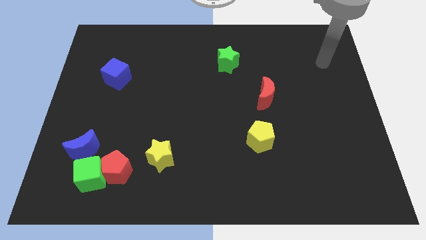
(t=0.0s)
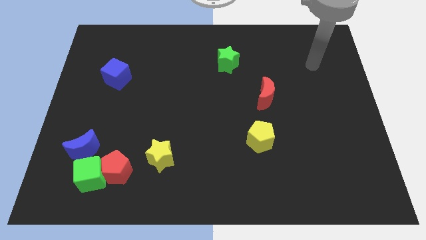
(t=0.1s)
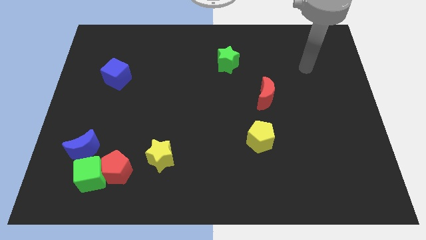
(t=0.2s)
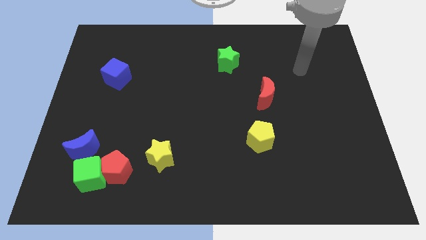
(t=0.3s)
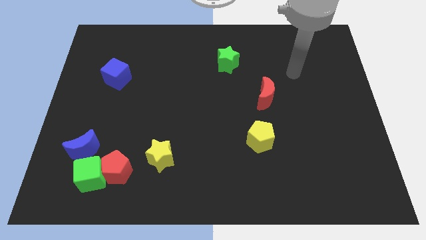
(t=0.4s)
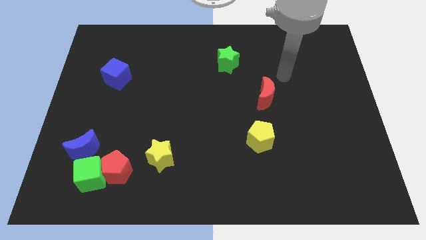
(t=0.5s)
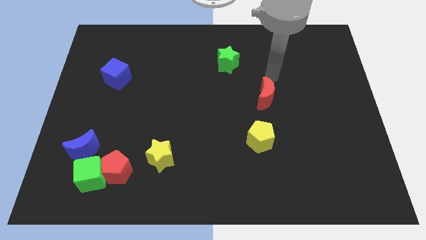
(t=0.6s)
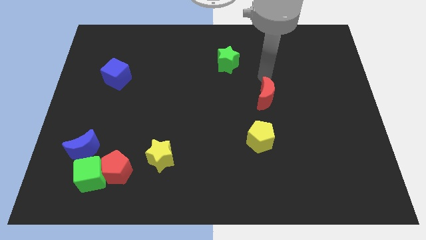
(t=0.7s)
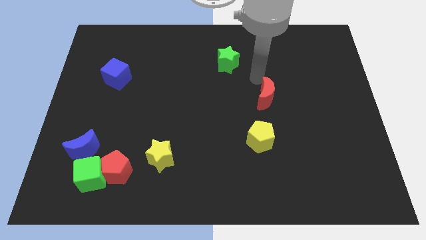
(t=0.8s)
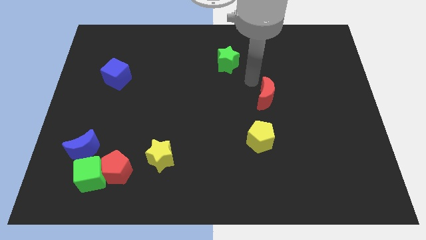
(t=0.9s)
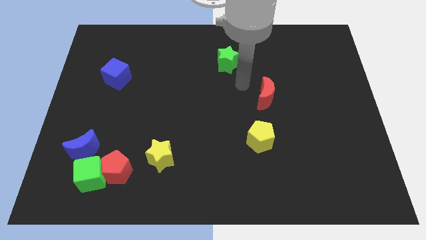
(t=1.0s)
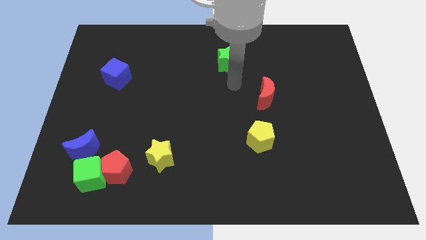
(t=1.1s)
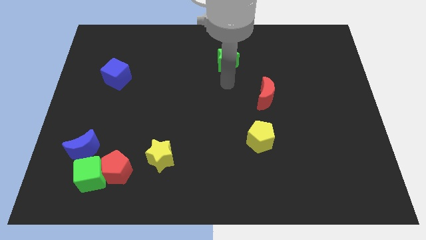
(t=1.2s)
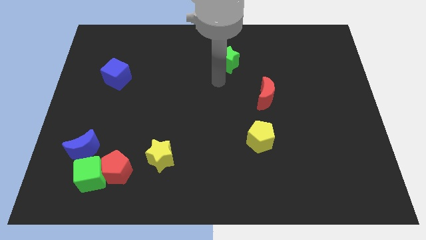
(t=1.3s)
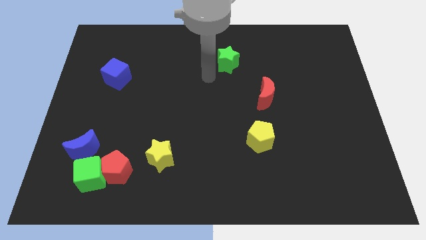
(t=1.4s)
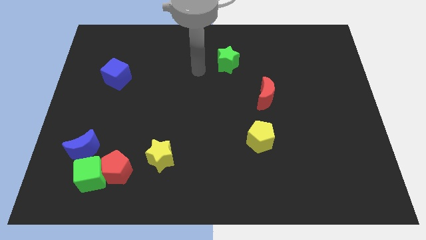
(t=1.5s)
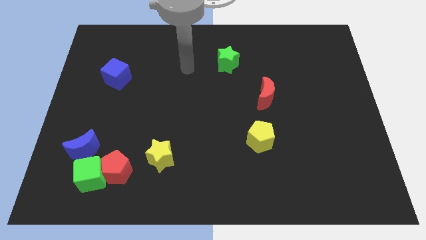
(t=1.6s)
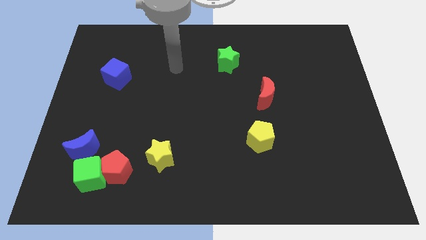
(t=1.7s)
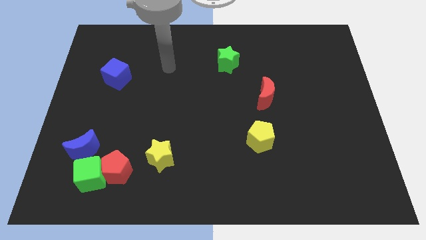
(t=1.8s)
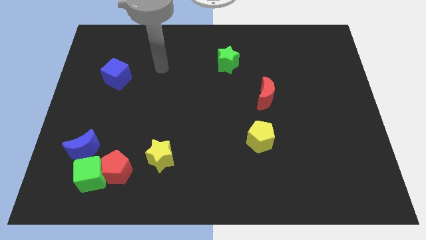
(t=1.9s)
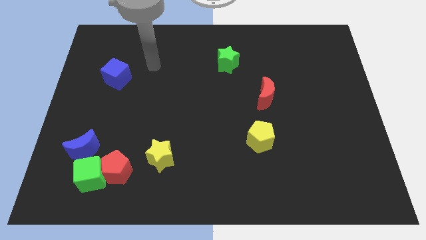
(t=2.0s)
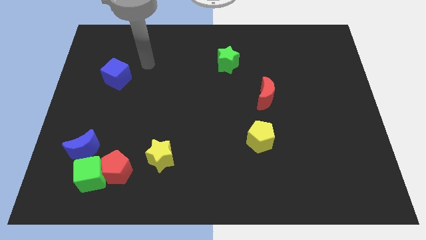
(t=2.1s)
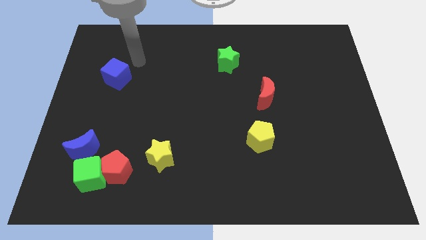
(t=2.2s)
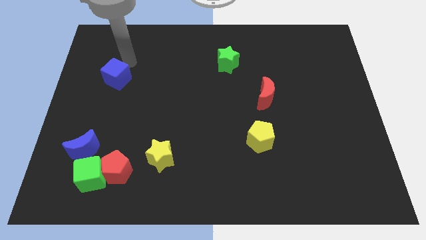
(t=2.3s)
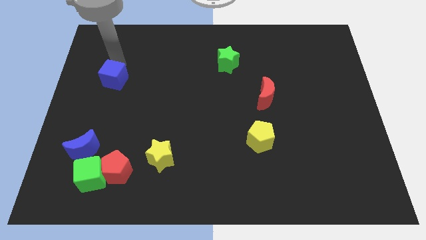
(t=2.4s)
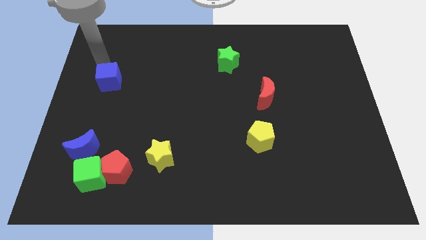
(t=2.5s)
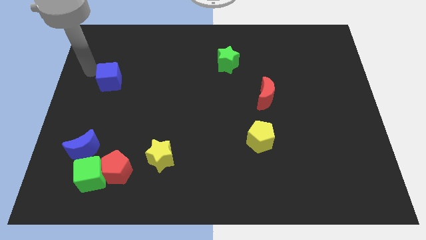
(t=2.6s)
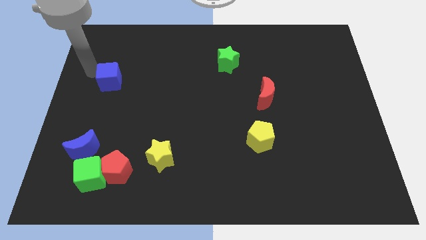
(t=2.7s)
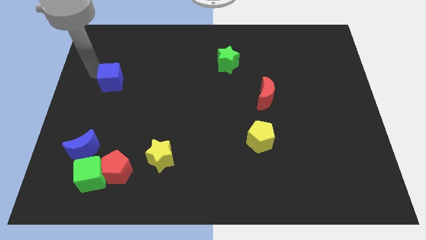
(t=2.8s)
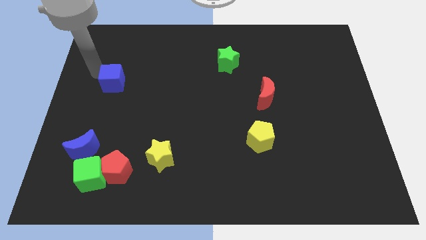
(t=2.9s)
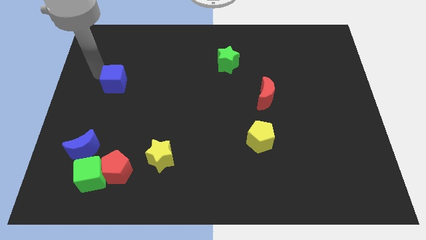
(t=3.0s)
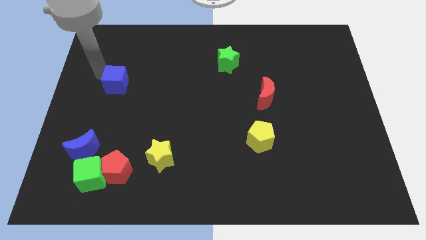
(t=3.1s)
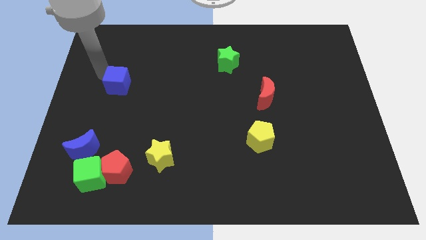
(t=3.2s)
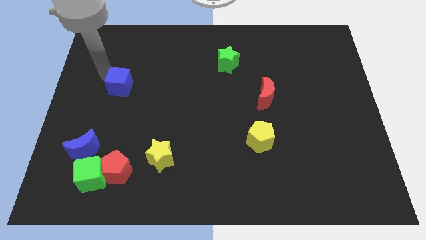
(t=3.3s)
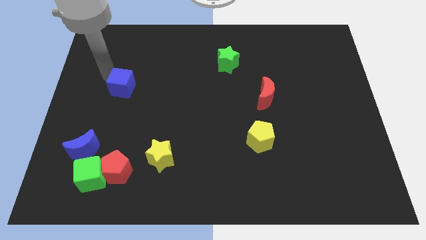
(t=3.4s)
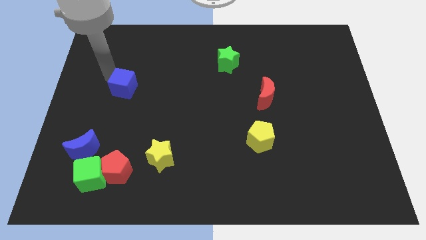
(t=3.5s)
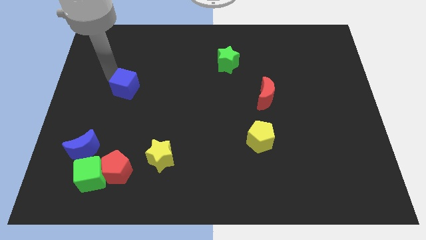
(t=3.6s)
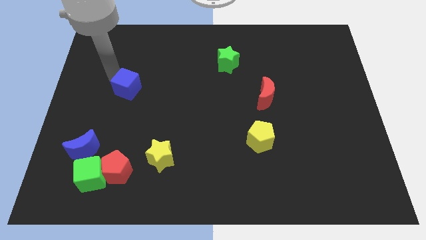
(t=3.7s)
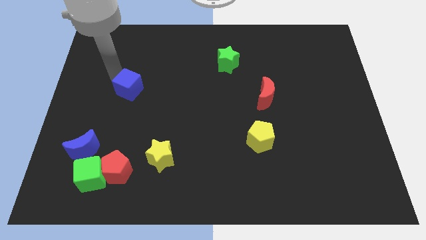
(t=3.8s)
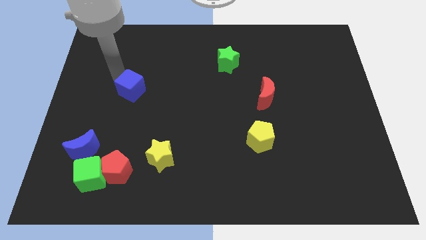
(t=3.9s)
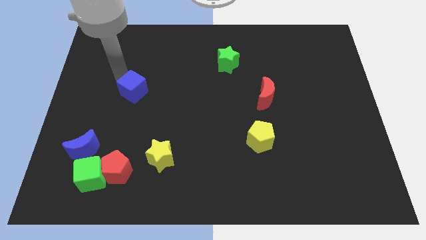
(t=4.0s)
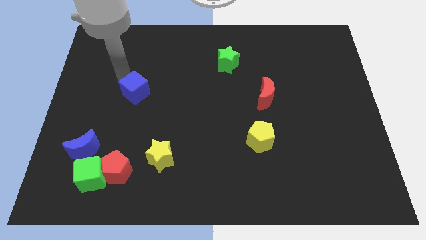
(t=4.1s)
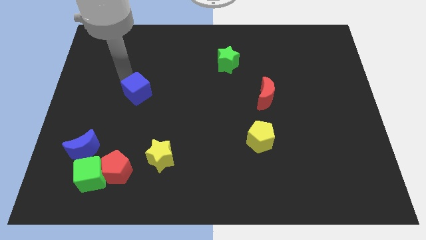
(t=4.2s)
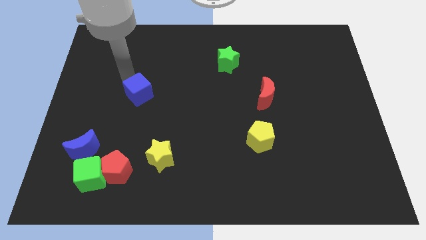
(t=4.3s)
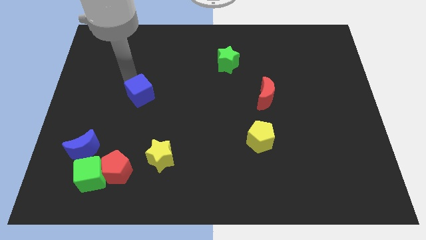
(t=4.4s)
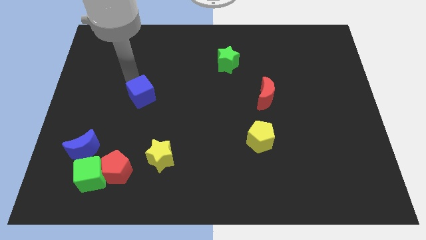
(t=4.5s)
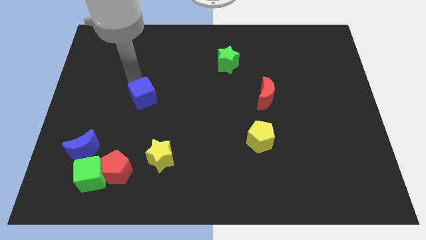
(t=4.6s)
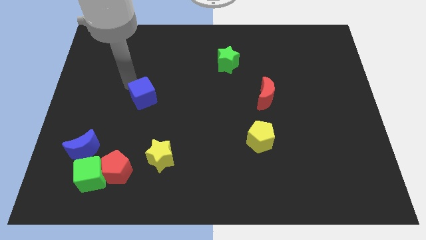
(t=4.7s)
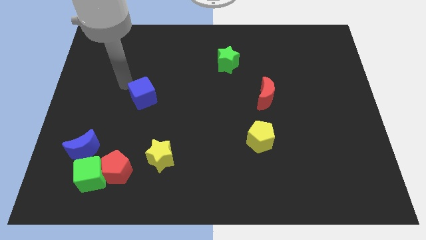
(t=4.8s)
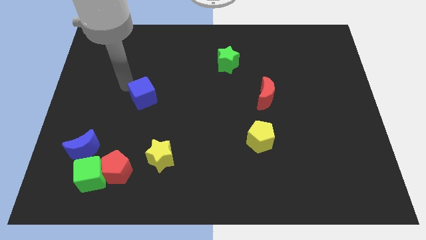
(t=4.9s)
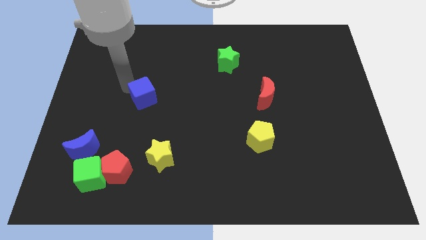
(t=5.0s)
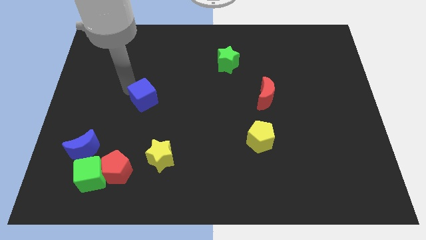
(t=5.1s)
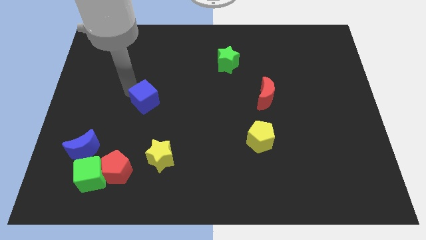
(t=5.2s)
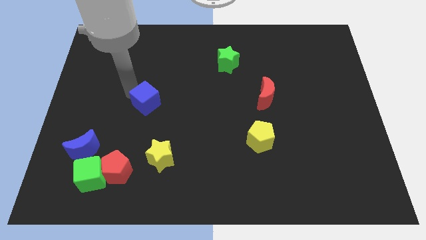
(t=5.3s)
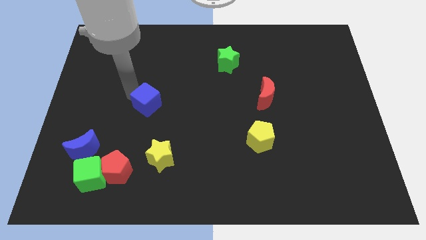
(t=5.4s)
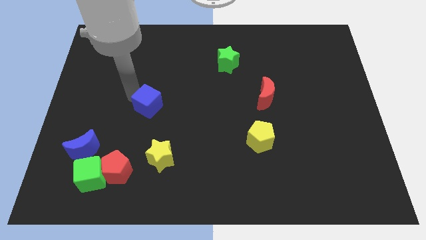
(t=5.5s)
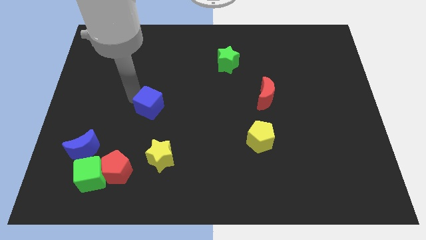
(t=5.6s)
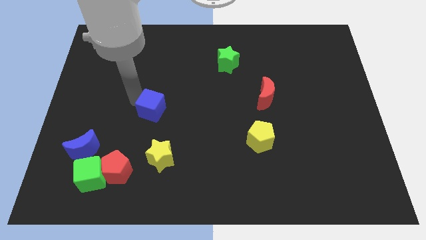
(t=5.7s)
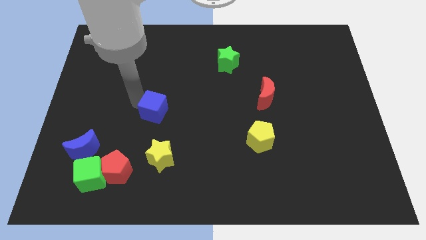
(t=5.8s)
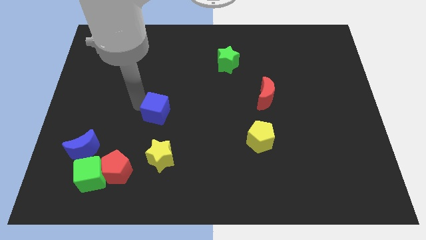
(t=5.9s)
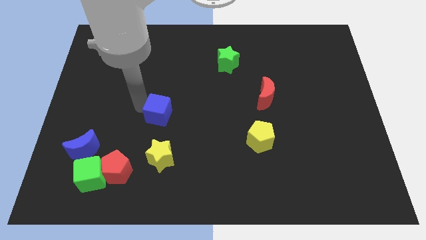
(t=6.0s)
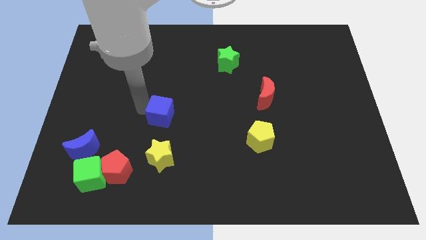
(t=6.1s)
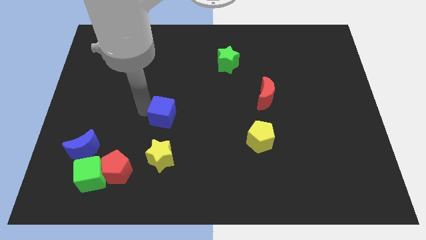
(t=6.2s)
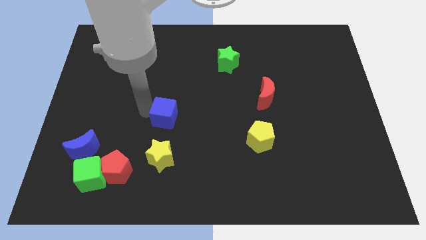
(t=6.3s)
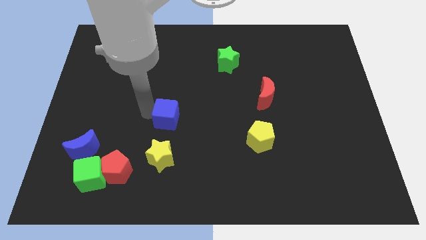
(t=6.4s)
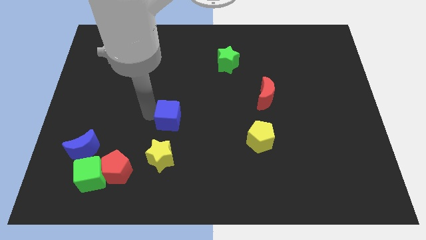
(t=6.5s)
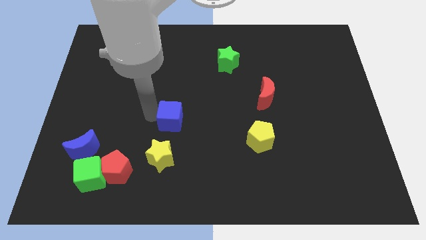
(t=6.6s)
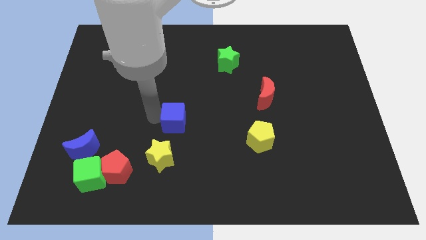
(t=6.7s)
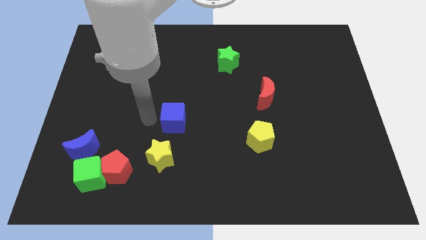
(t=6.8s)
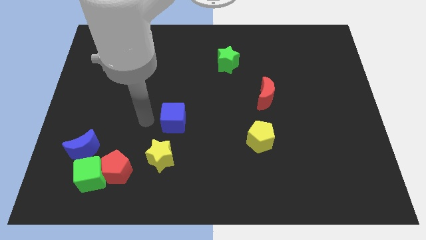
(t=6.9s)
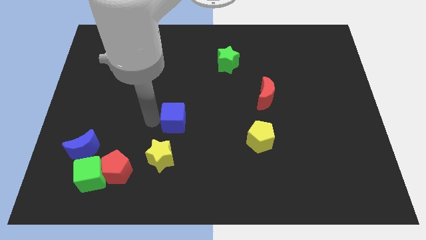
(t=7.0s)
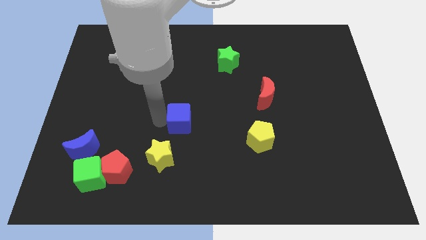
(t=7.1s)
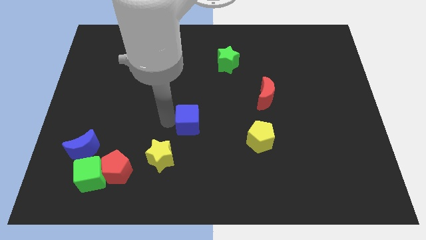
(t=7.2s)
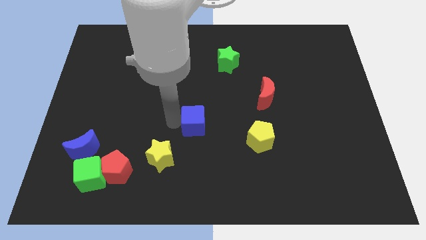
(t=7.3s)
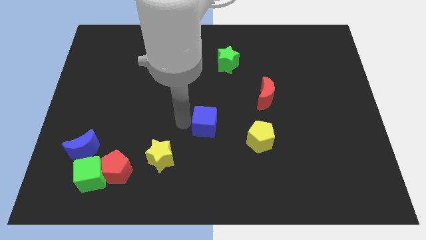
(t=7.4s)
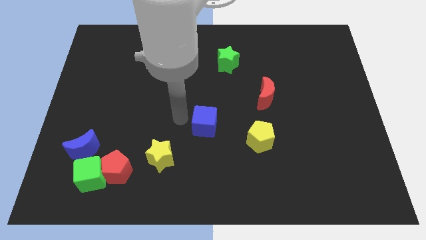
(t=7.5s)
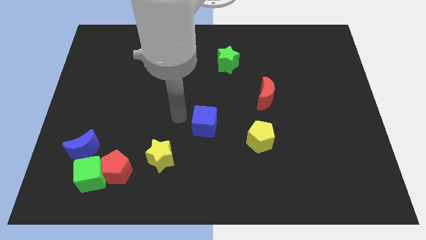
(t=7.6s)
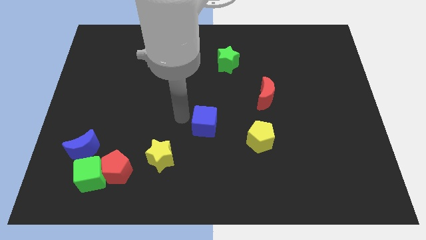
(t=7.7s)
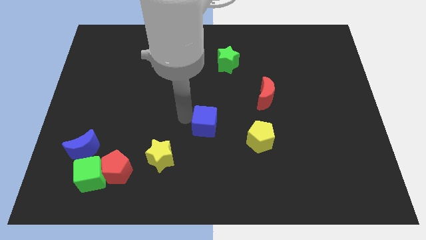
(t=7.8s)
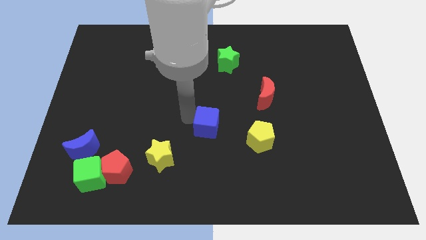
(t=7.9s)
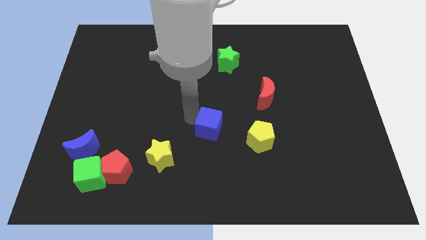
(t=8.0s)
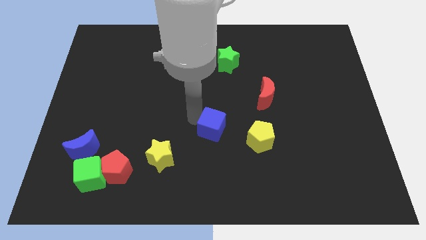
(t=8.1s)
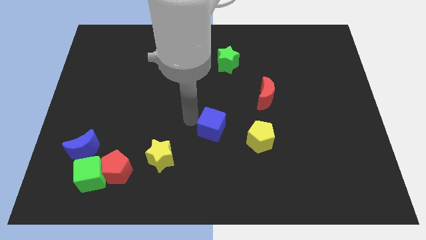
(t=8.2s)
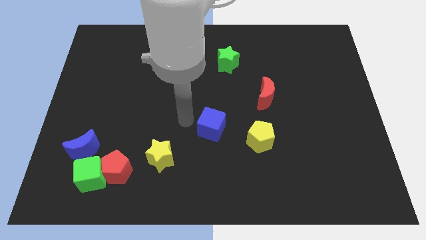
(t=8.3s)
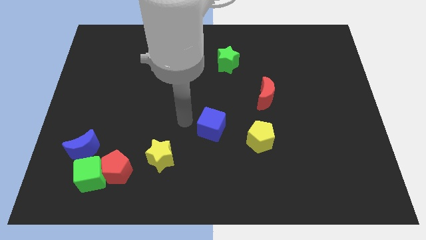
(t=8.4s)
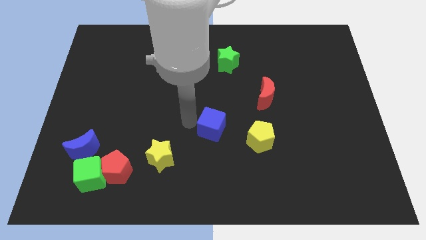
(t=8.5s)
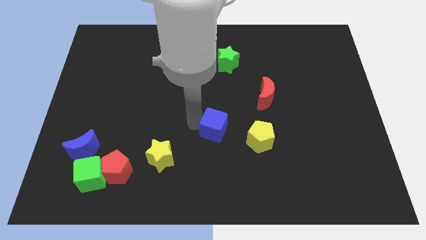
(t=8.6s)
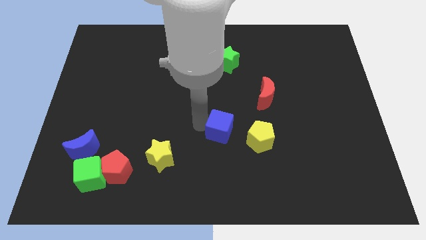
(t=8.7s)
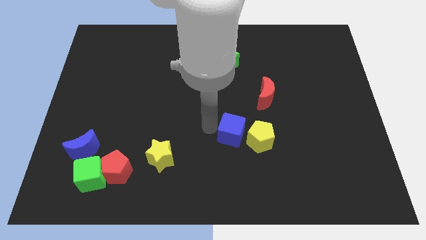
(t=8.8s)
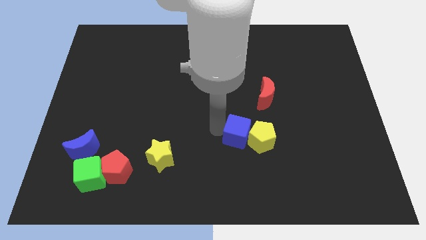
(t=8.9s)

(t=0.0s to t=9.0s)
slide the blue cube close to the yellow pentagon
